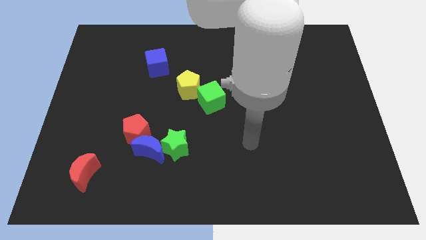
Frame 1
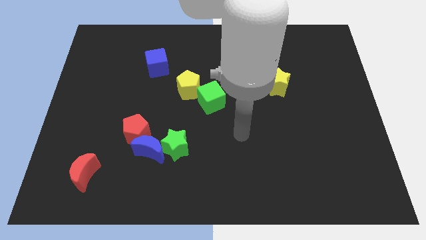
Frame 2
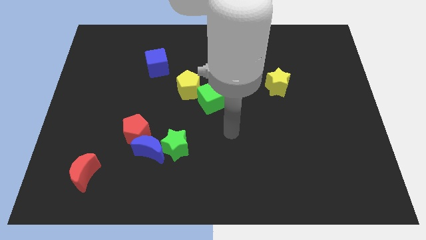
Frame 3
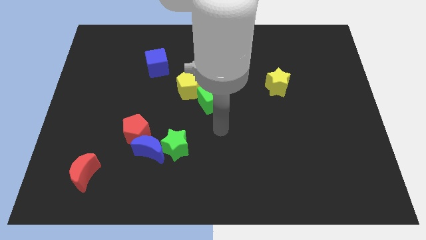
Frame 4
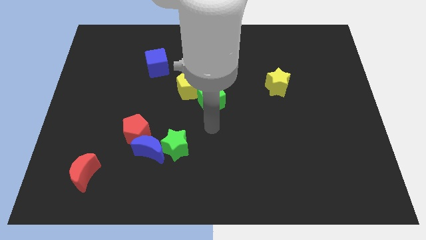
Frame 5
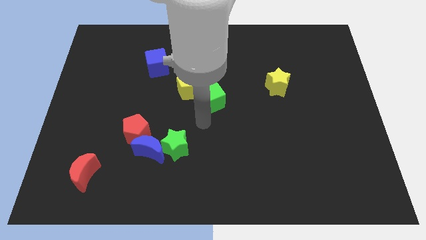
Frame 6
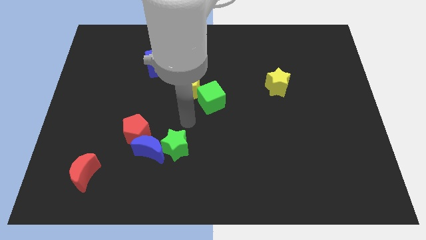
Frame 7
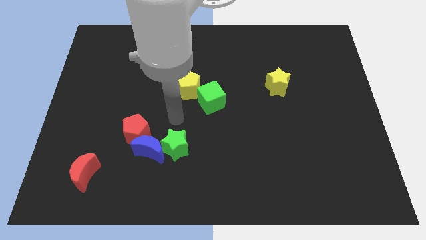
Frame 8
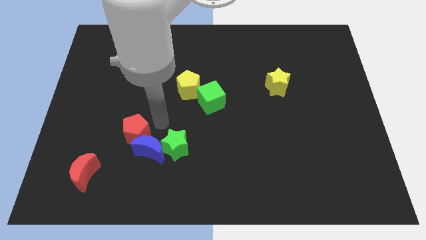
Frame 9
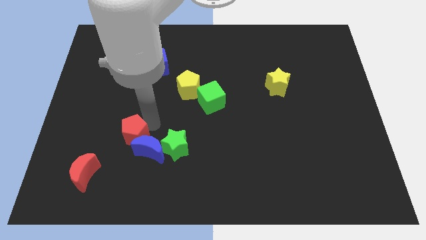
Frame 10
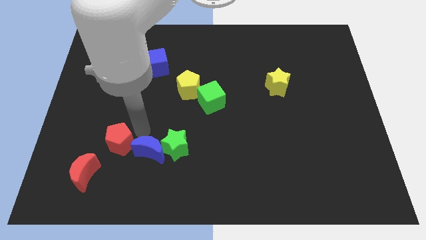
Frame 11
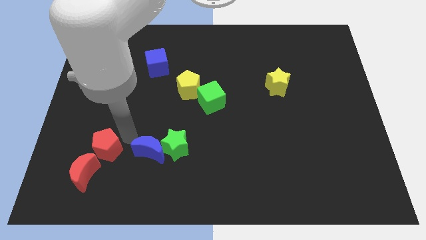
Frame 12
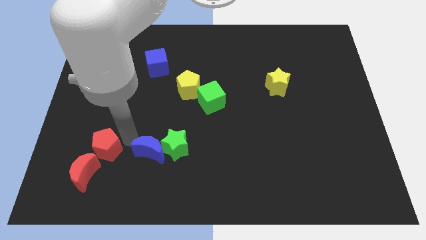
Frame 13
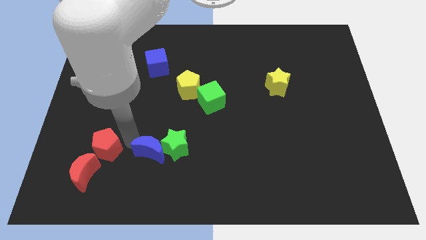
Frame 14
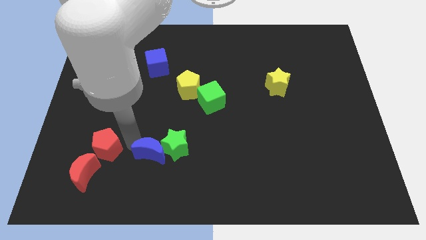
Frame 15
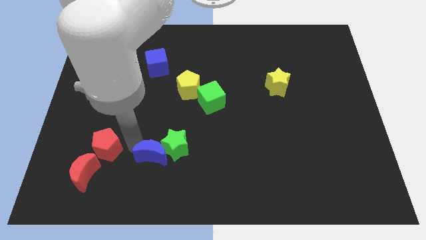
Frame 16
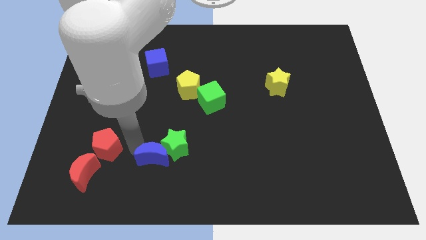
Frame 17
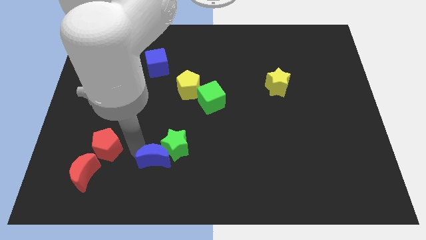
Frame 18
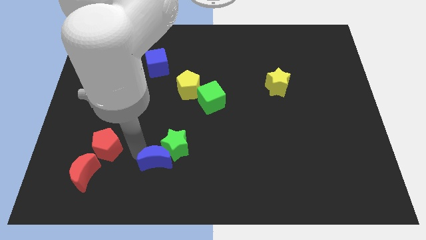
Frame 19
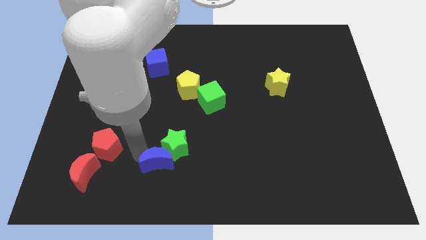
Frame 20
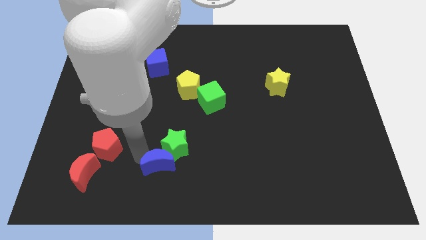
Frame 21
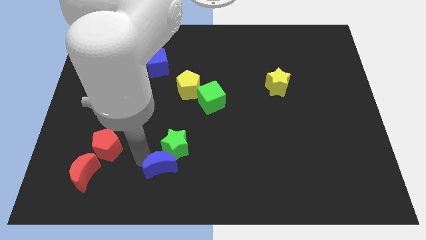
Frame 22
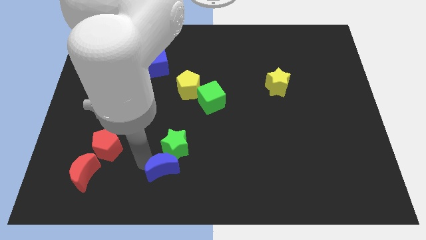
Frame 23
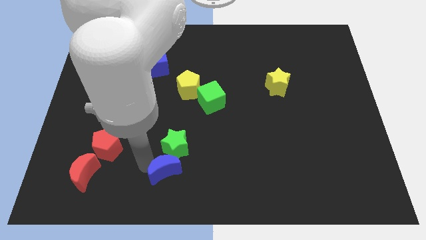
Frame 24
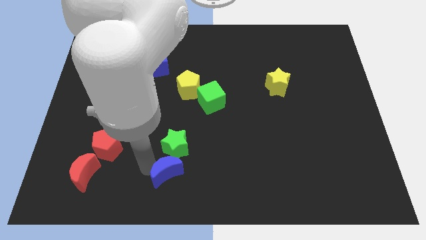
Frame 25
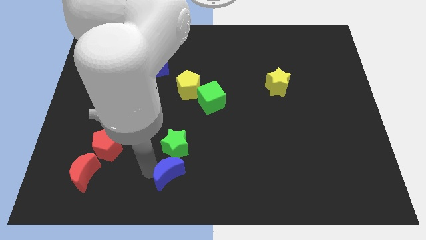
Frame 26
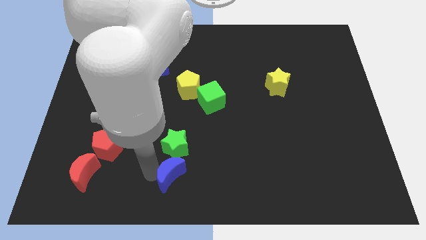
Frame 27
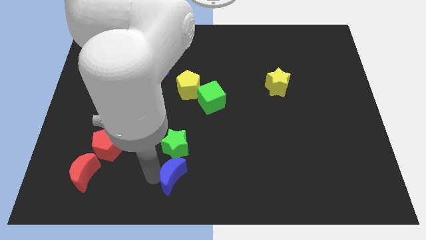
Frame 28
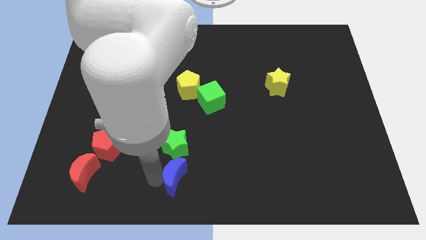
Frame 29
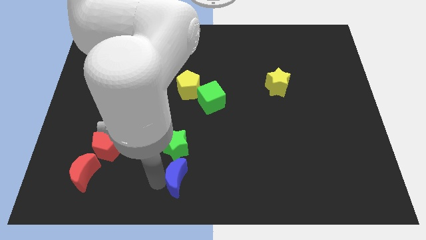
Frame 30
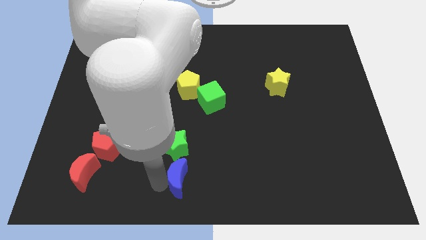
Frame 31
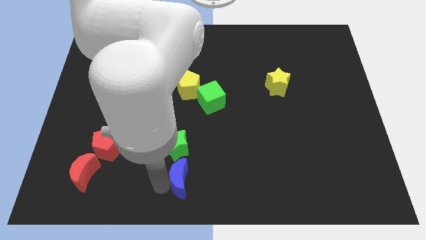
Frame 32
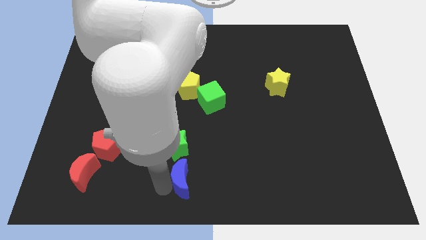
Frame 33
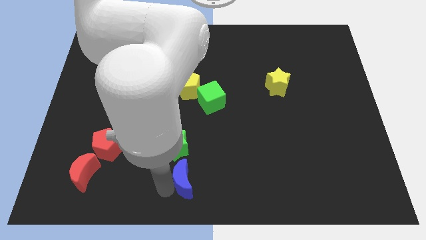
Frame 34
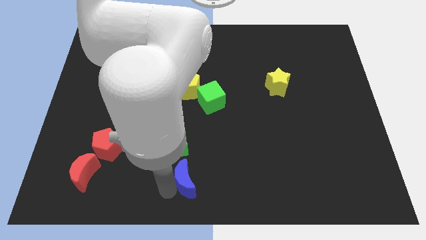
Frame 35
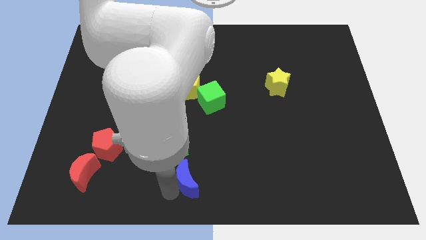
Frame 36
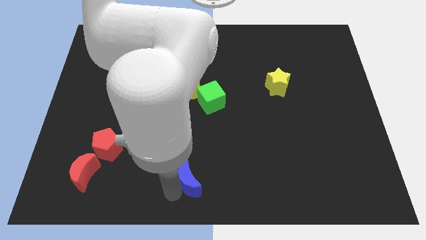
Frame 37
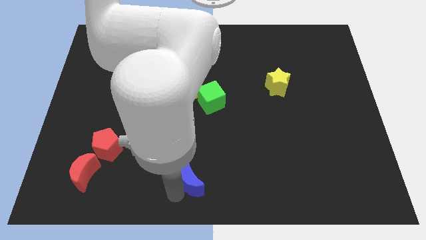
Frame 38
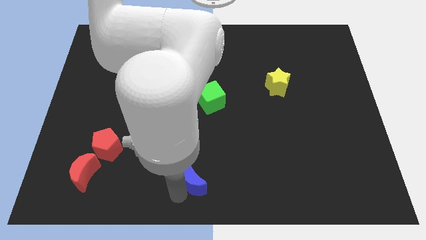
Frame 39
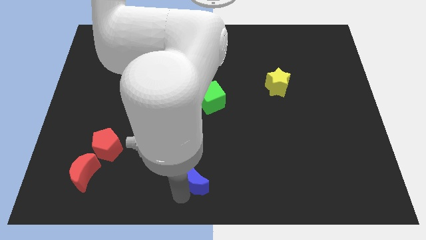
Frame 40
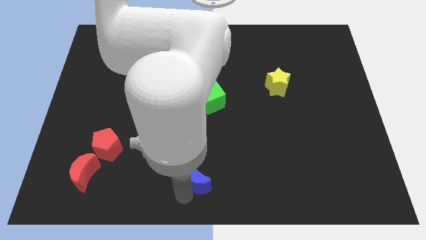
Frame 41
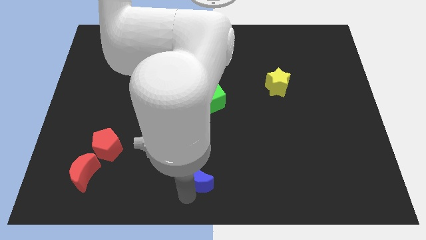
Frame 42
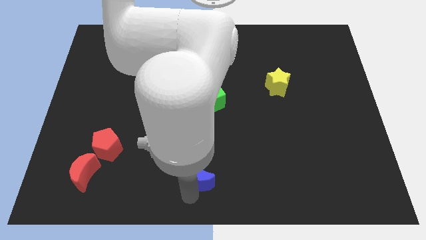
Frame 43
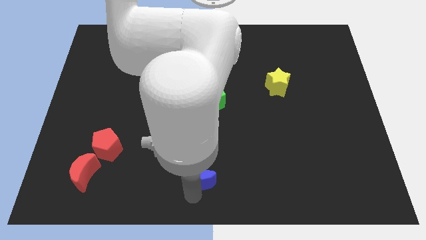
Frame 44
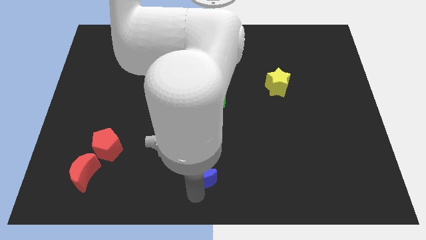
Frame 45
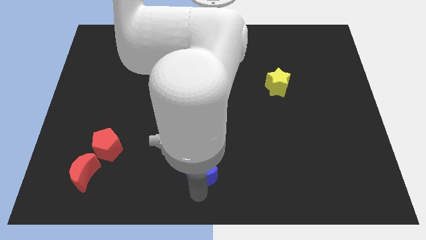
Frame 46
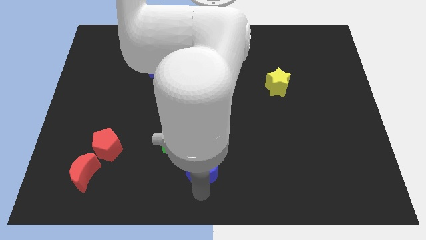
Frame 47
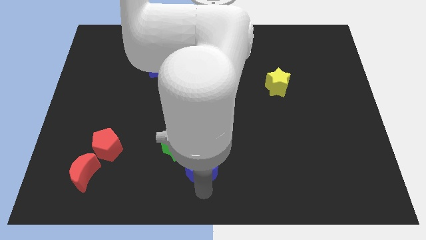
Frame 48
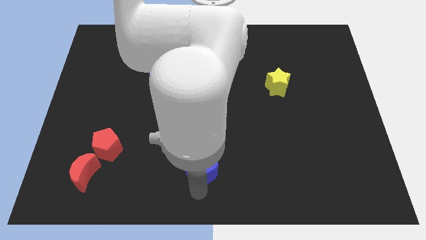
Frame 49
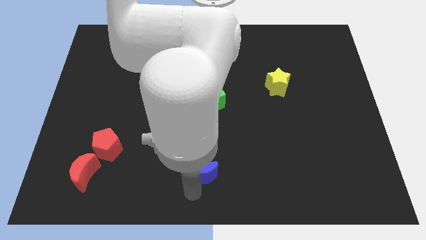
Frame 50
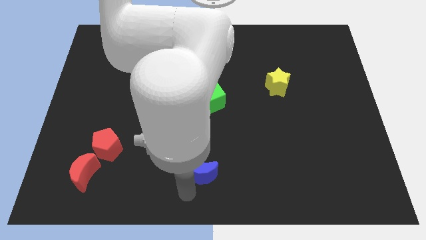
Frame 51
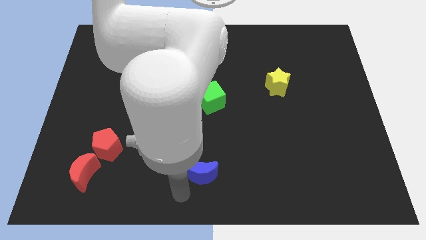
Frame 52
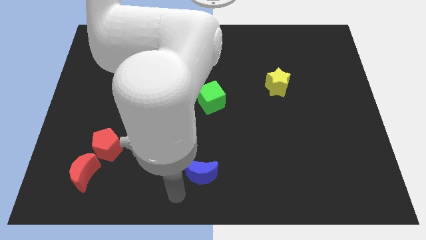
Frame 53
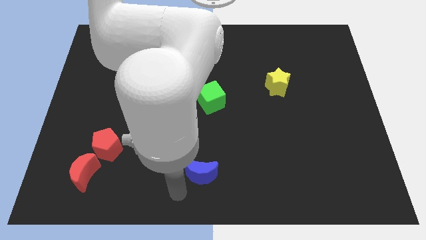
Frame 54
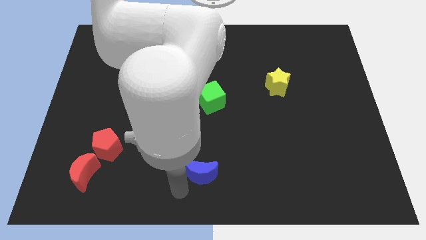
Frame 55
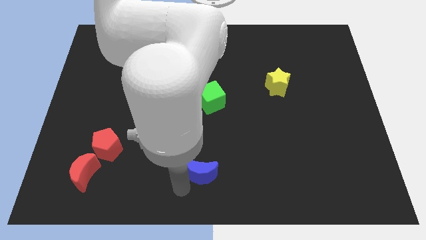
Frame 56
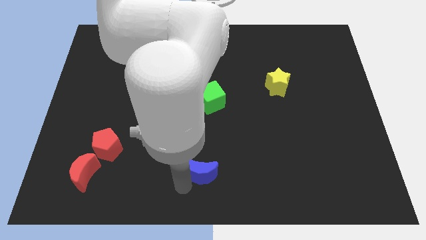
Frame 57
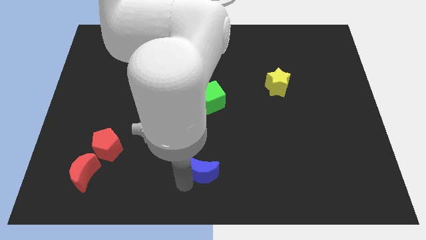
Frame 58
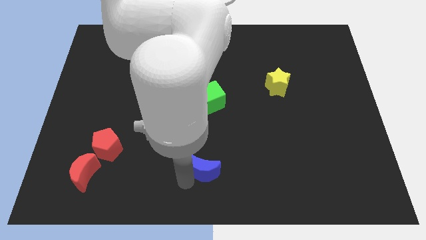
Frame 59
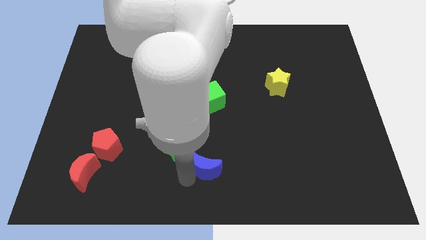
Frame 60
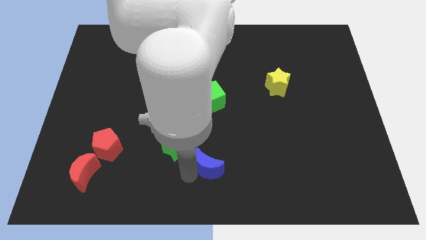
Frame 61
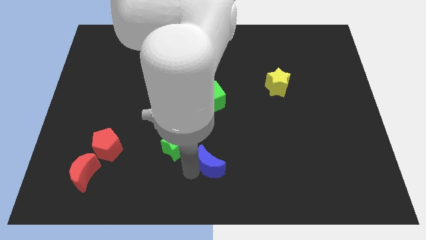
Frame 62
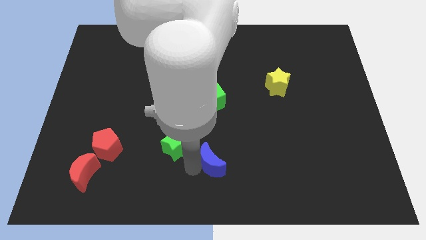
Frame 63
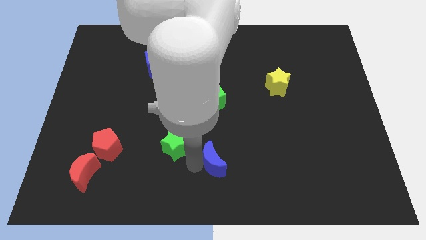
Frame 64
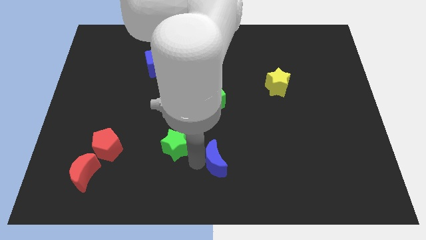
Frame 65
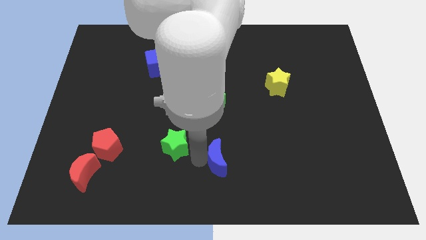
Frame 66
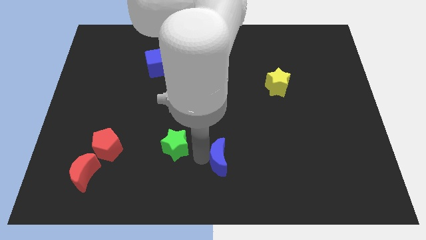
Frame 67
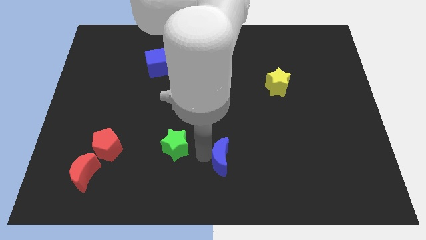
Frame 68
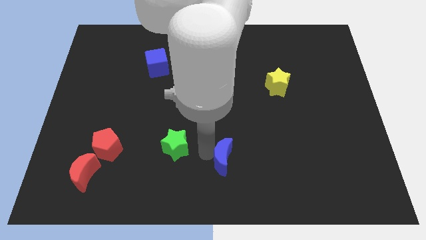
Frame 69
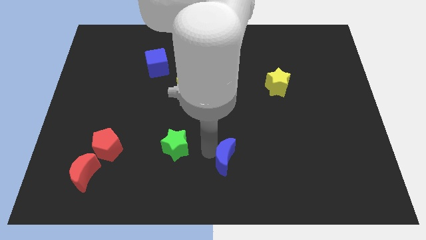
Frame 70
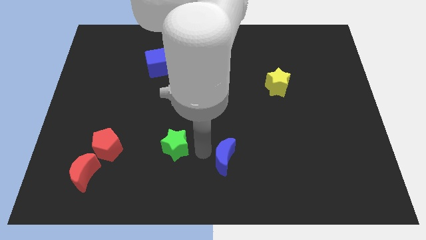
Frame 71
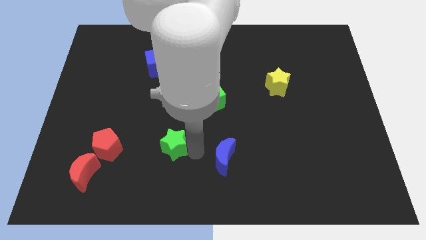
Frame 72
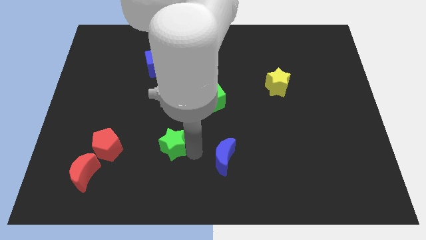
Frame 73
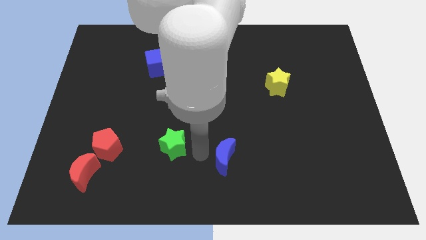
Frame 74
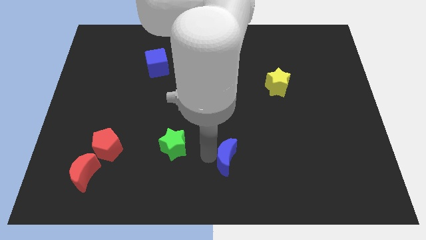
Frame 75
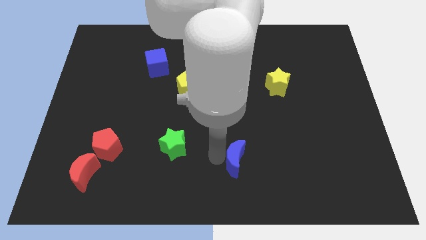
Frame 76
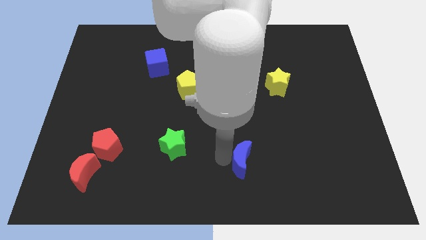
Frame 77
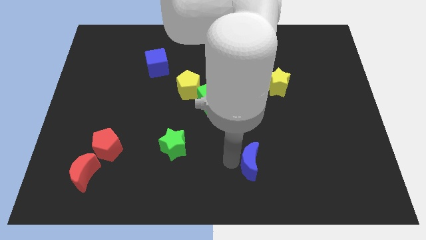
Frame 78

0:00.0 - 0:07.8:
slide the blue moon right
